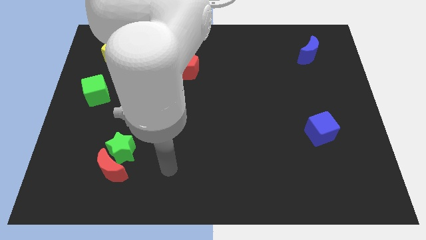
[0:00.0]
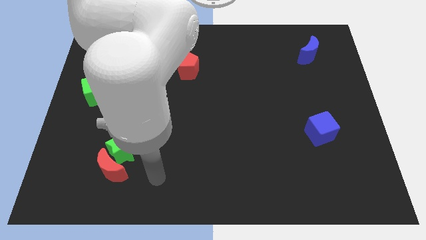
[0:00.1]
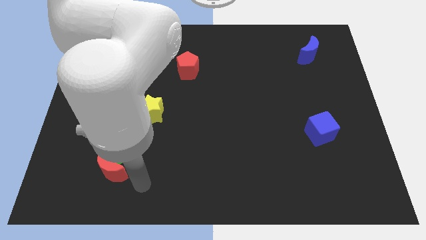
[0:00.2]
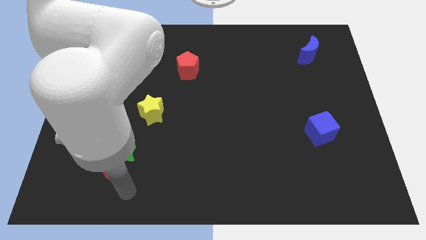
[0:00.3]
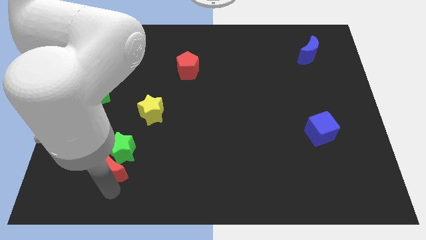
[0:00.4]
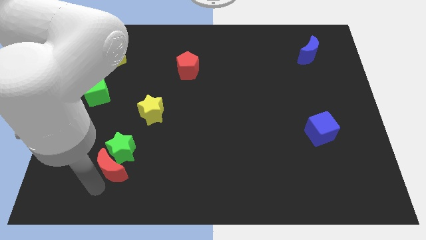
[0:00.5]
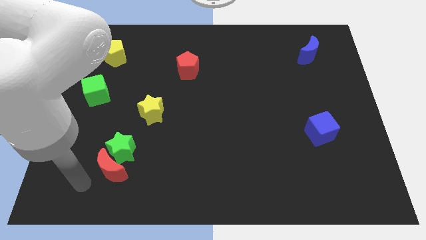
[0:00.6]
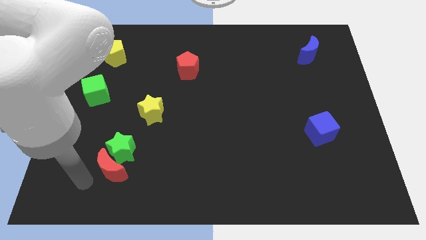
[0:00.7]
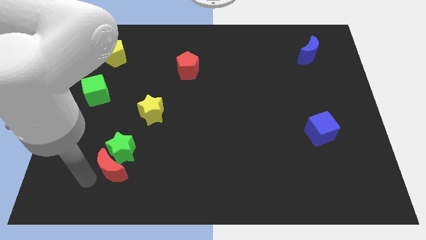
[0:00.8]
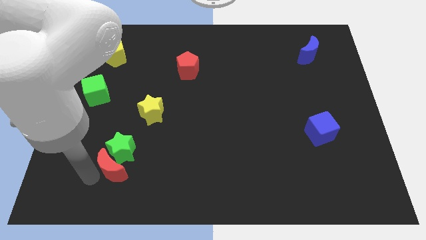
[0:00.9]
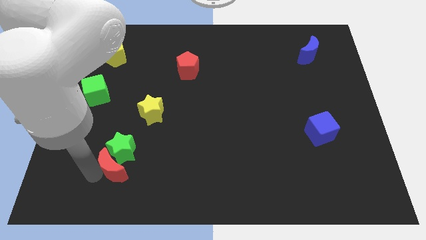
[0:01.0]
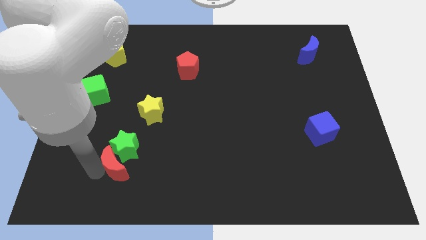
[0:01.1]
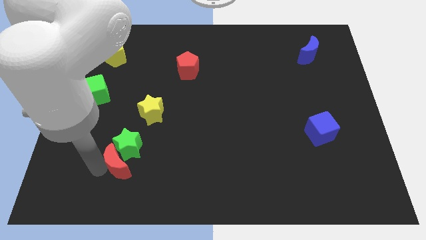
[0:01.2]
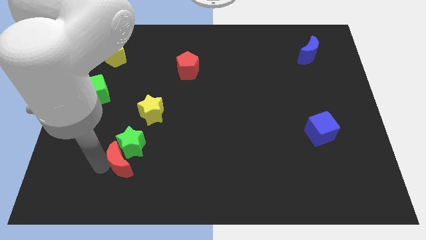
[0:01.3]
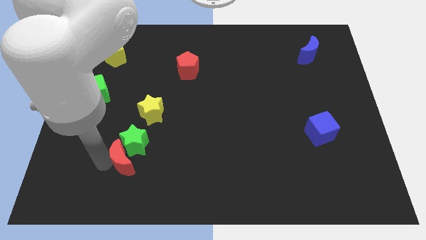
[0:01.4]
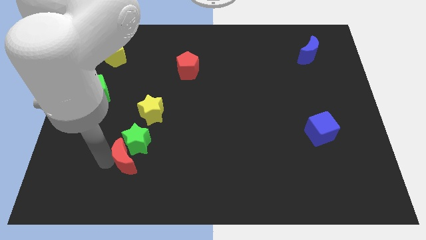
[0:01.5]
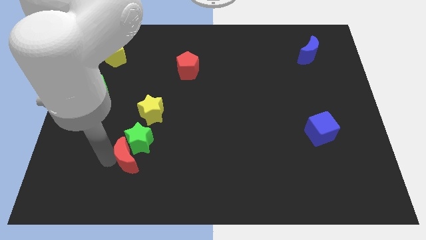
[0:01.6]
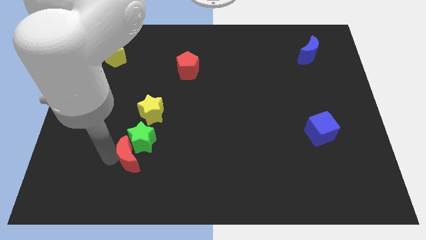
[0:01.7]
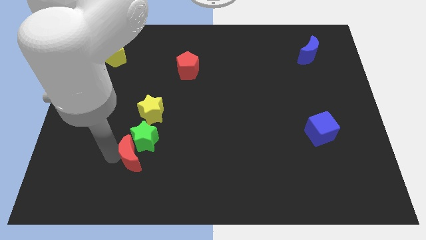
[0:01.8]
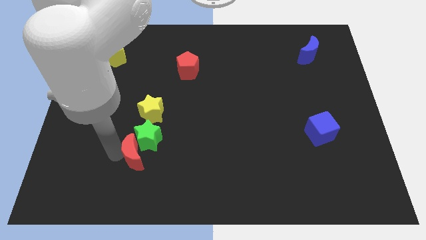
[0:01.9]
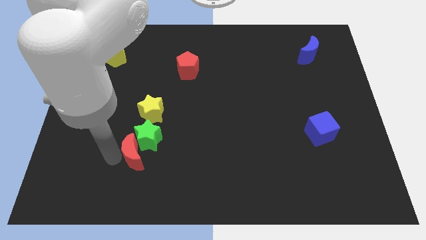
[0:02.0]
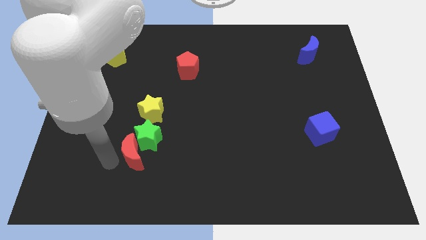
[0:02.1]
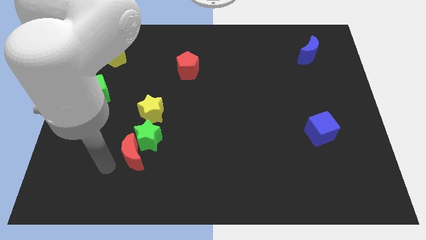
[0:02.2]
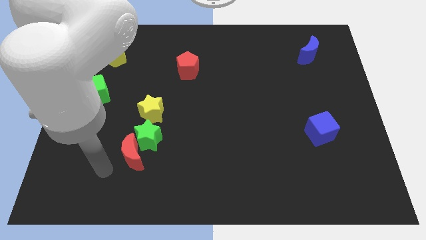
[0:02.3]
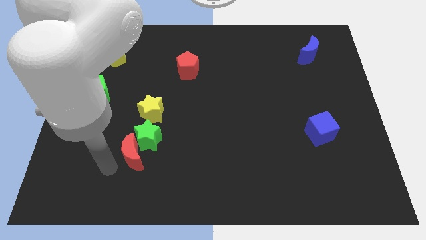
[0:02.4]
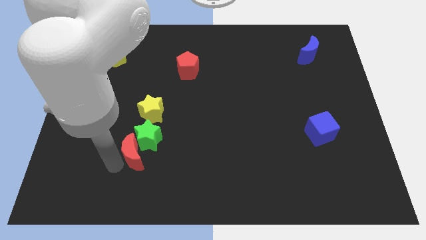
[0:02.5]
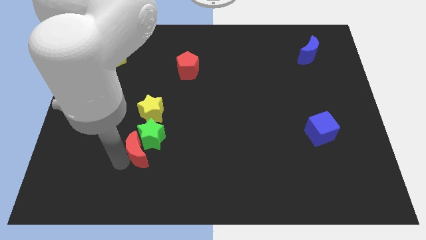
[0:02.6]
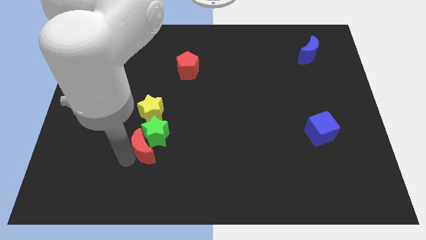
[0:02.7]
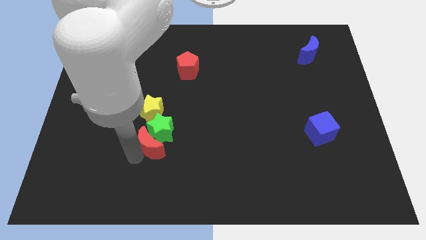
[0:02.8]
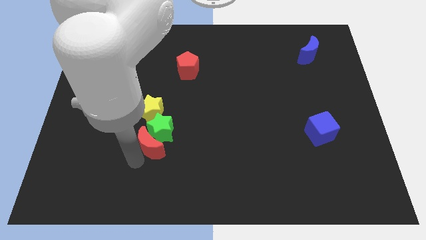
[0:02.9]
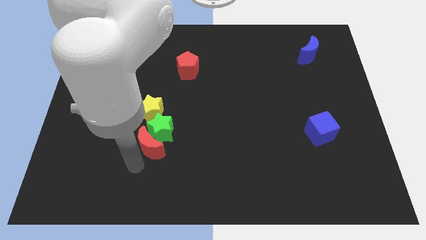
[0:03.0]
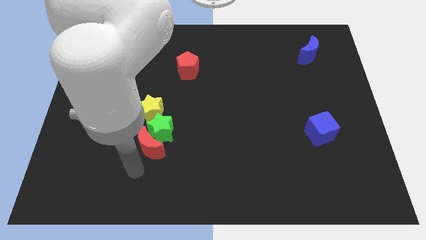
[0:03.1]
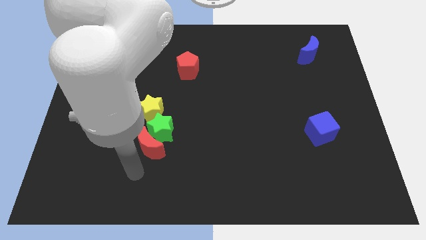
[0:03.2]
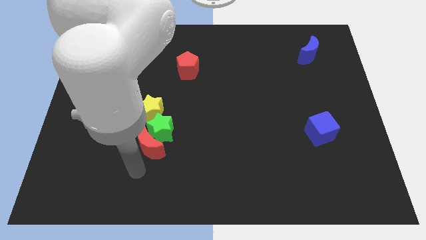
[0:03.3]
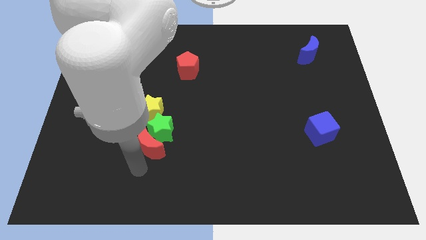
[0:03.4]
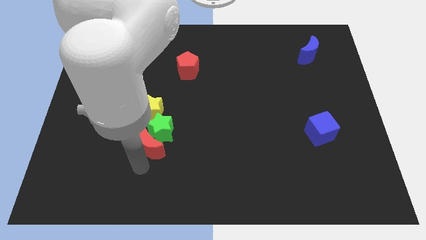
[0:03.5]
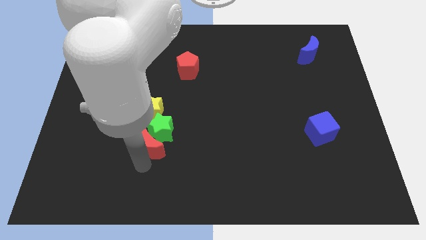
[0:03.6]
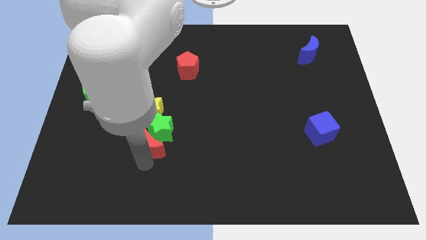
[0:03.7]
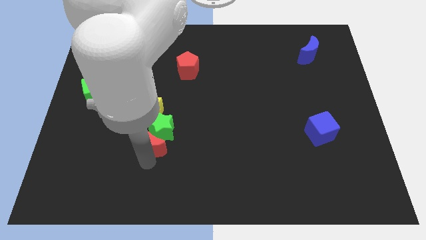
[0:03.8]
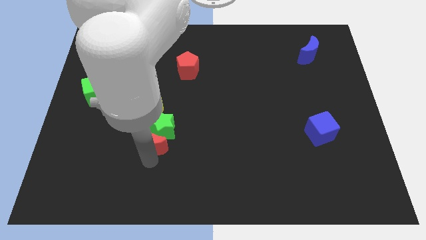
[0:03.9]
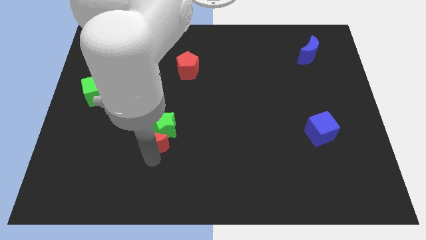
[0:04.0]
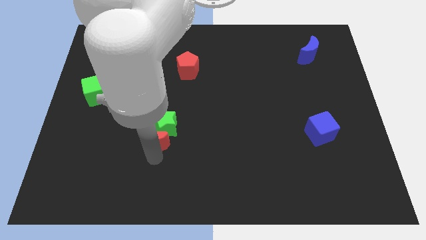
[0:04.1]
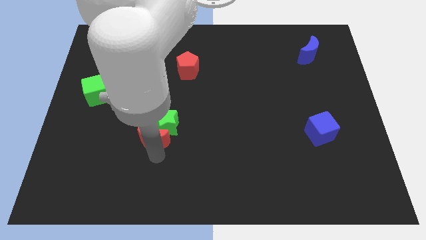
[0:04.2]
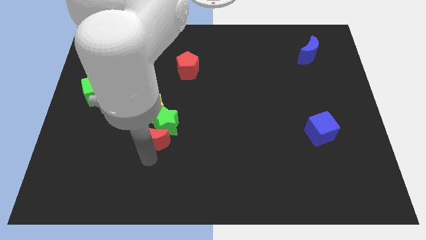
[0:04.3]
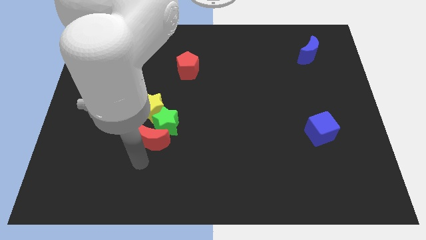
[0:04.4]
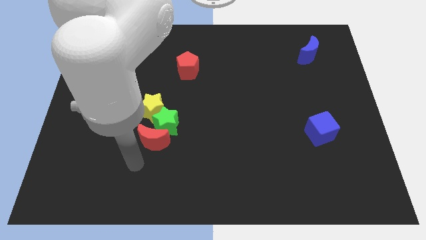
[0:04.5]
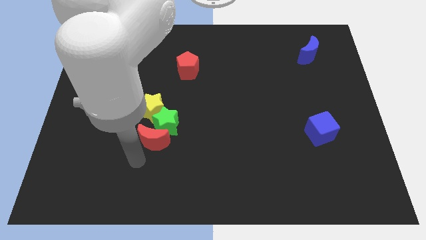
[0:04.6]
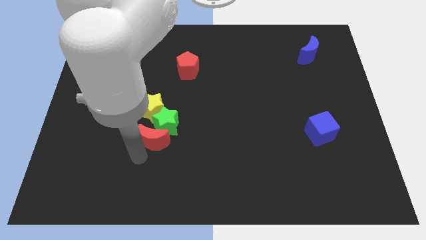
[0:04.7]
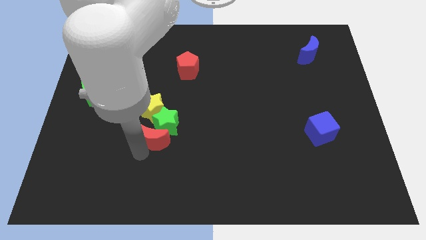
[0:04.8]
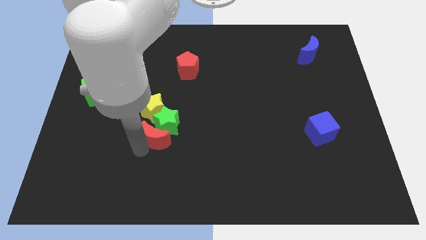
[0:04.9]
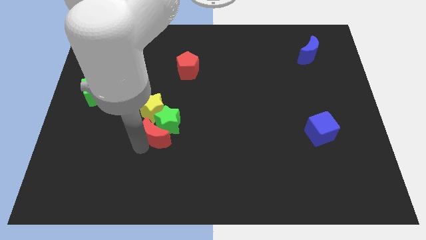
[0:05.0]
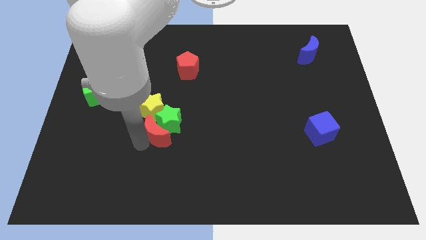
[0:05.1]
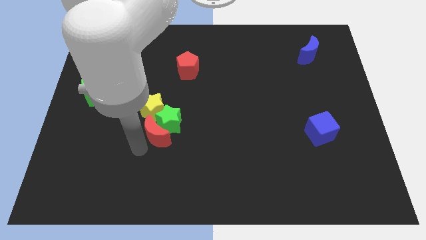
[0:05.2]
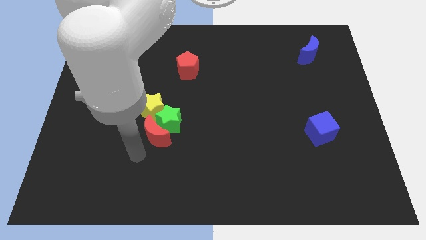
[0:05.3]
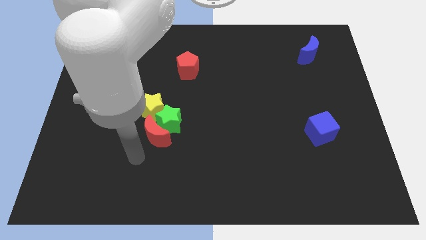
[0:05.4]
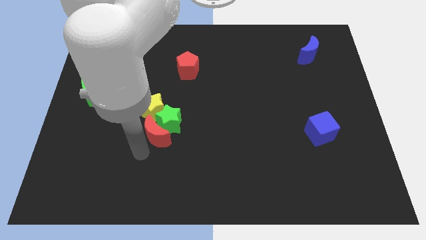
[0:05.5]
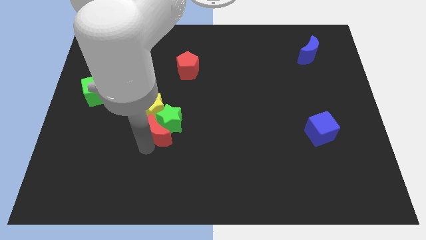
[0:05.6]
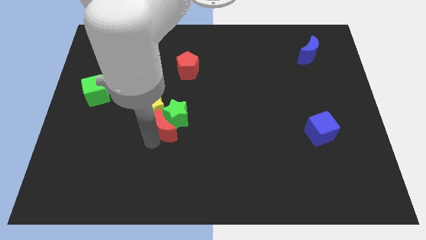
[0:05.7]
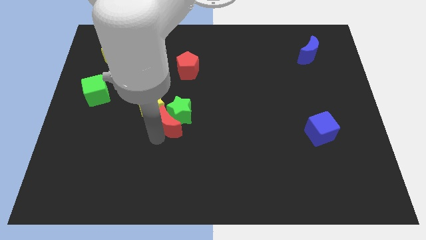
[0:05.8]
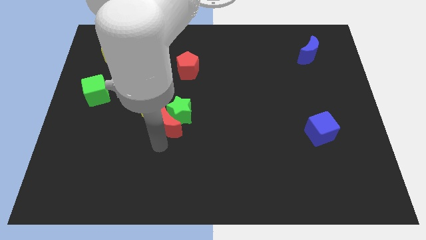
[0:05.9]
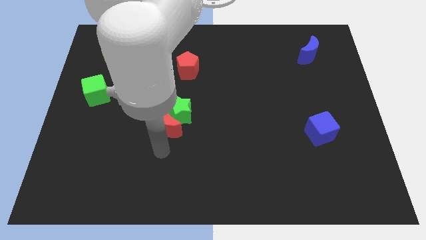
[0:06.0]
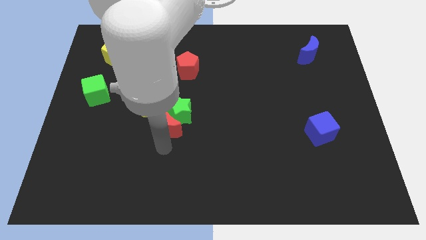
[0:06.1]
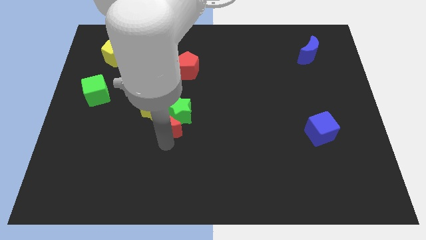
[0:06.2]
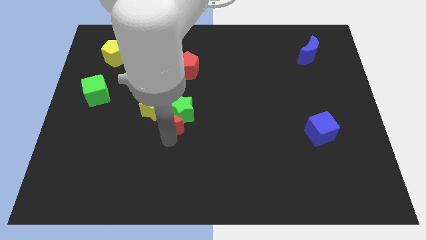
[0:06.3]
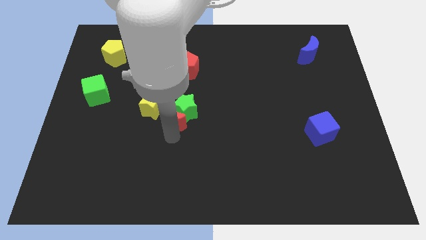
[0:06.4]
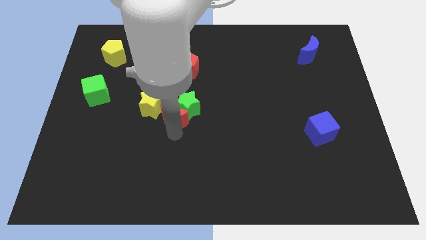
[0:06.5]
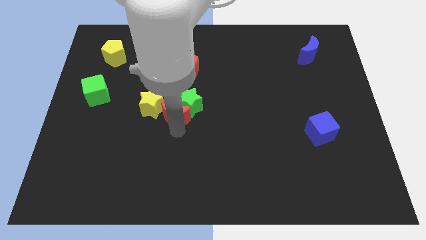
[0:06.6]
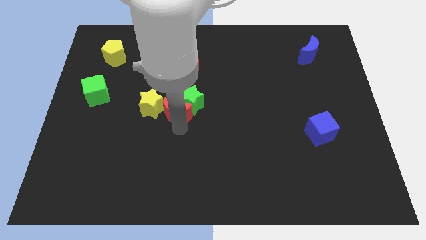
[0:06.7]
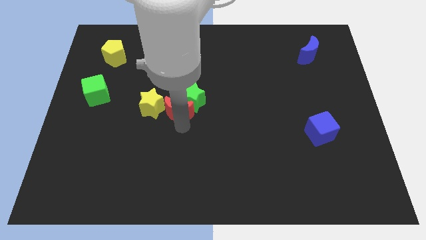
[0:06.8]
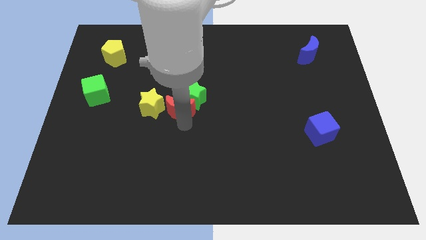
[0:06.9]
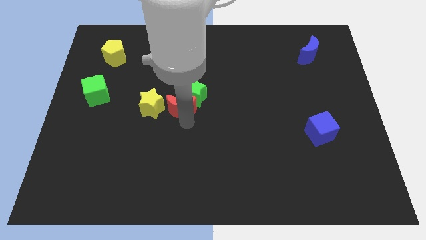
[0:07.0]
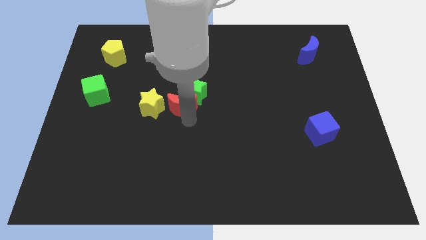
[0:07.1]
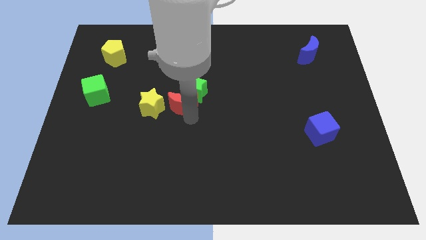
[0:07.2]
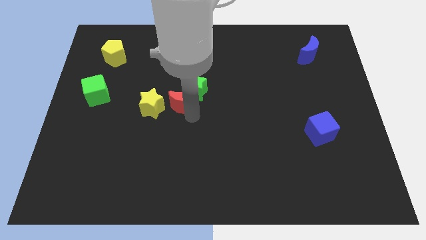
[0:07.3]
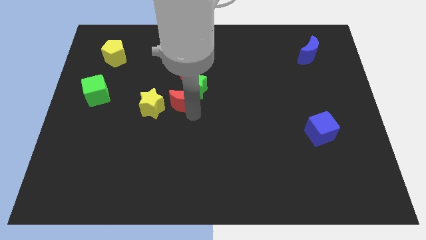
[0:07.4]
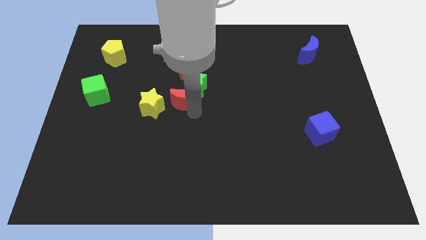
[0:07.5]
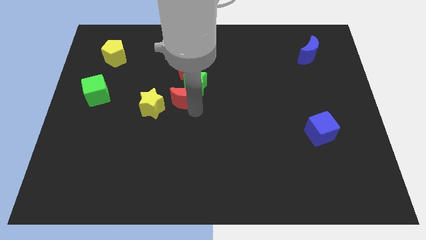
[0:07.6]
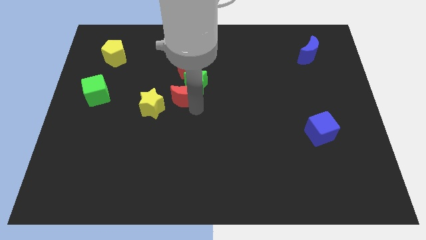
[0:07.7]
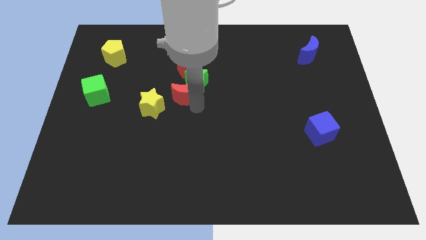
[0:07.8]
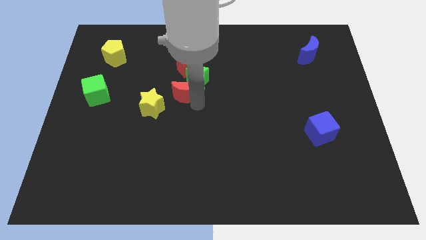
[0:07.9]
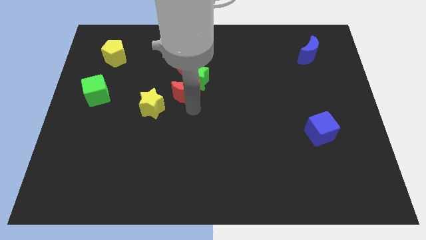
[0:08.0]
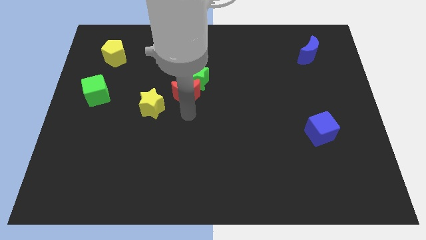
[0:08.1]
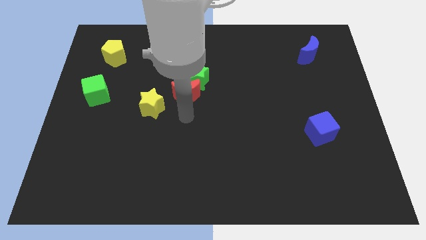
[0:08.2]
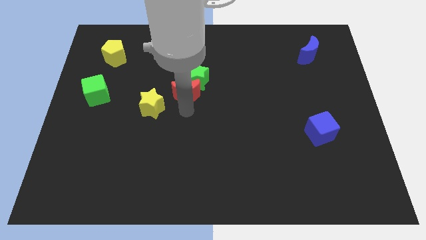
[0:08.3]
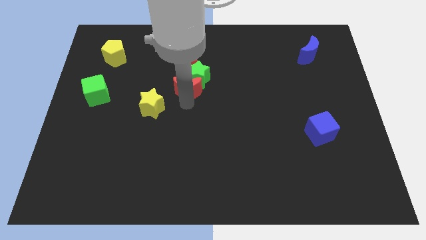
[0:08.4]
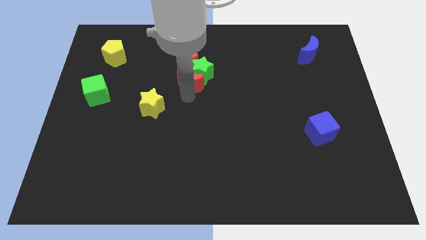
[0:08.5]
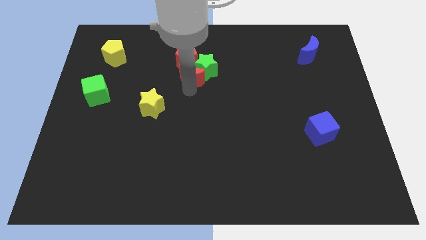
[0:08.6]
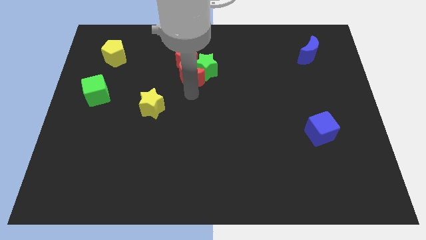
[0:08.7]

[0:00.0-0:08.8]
push the red moon next to the red pentagon
